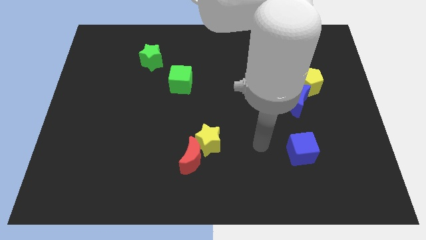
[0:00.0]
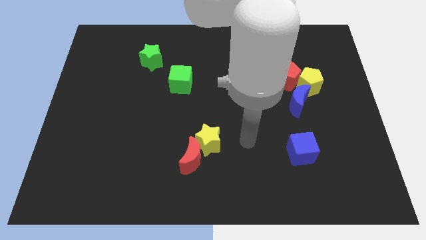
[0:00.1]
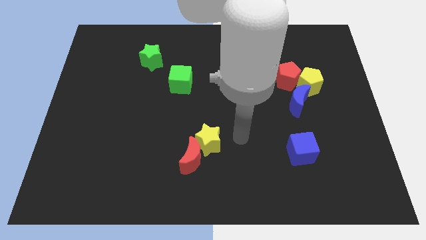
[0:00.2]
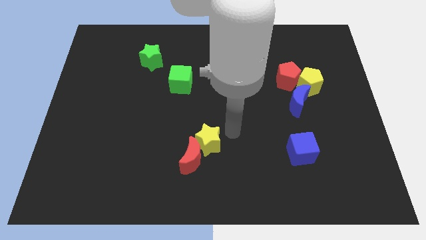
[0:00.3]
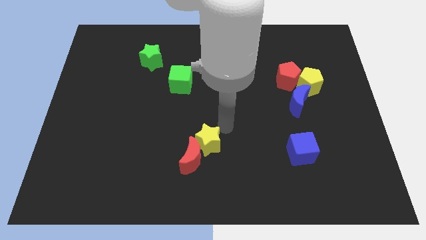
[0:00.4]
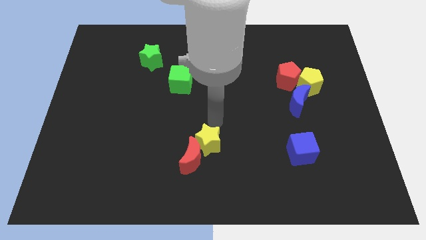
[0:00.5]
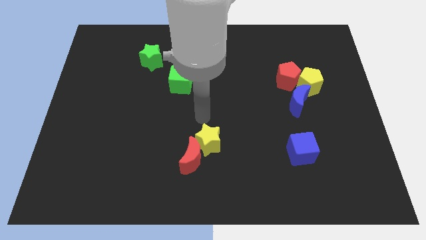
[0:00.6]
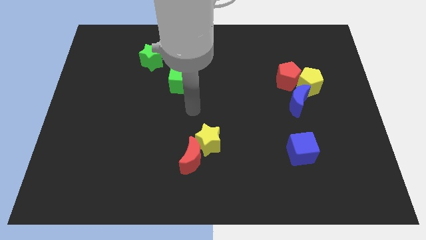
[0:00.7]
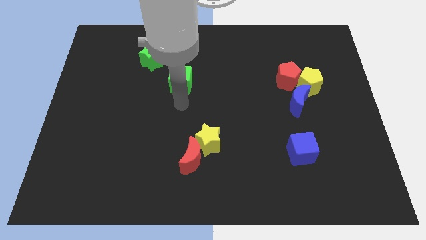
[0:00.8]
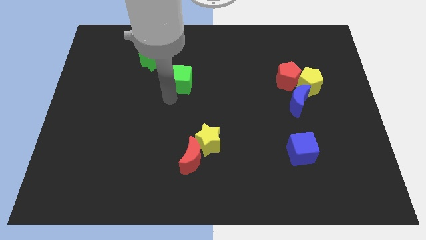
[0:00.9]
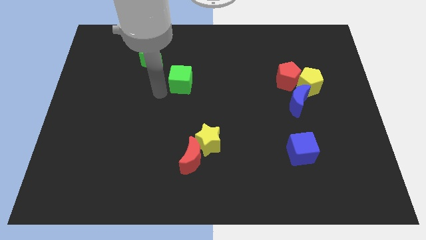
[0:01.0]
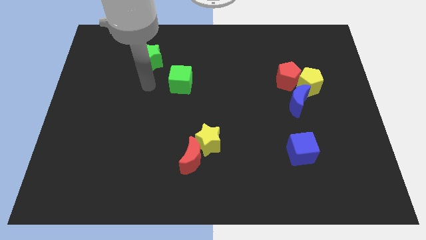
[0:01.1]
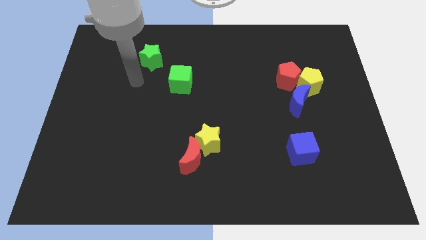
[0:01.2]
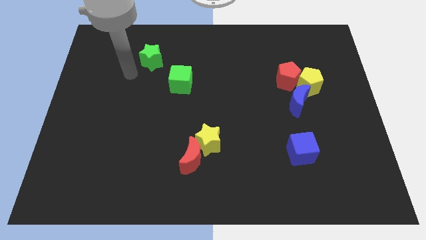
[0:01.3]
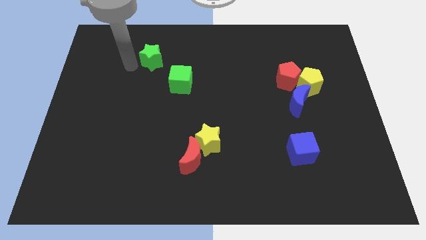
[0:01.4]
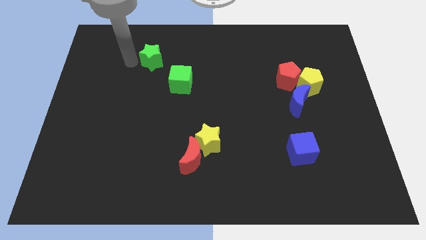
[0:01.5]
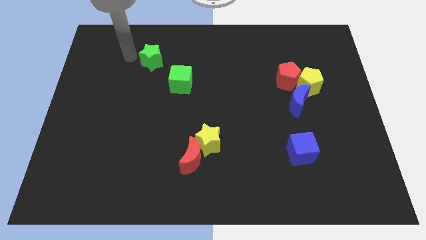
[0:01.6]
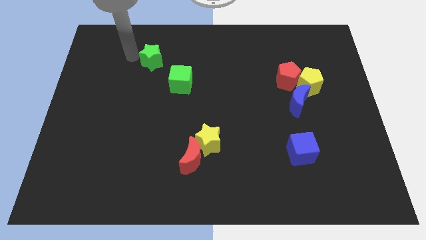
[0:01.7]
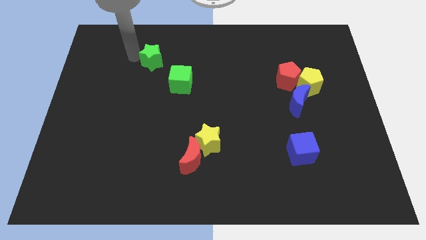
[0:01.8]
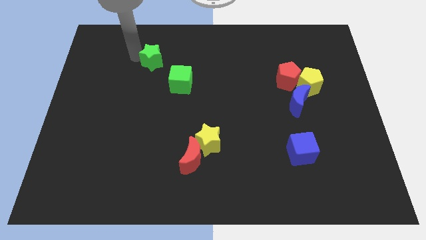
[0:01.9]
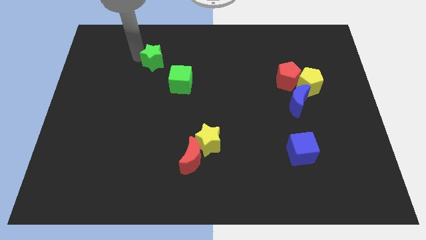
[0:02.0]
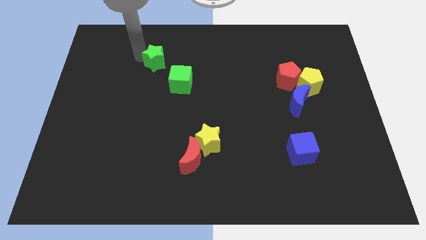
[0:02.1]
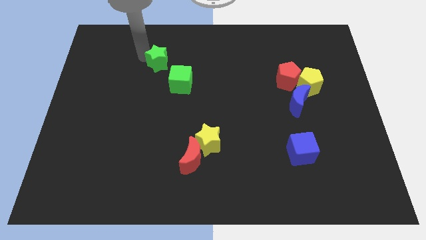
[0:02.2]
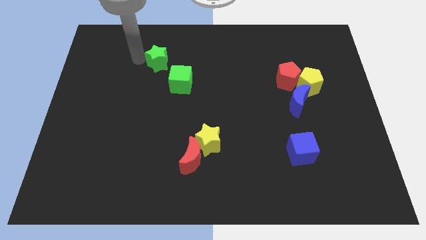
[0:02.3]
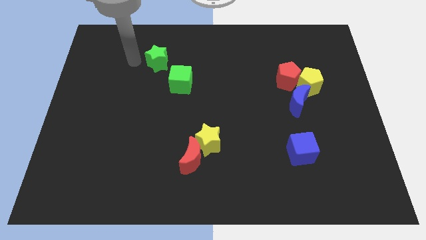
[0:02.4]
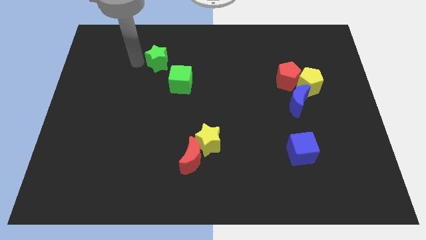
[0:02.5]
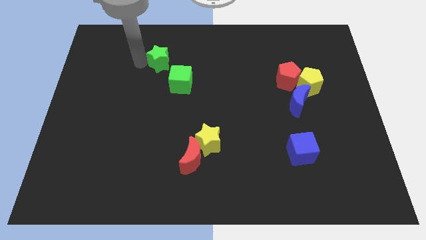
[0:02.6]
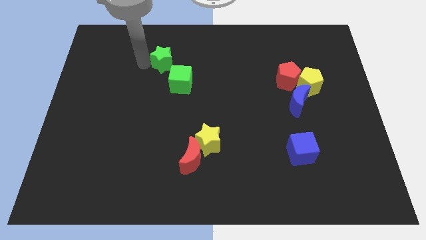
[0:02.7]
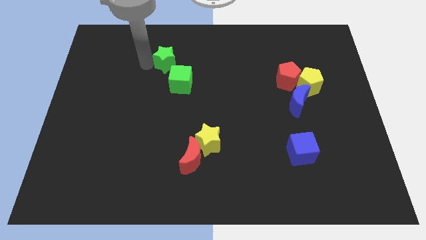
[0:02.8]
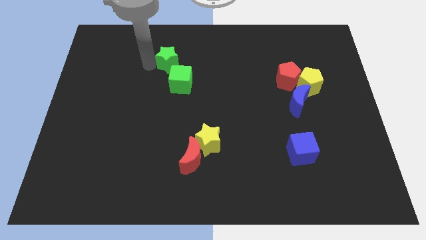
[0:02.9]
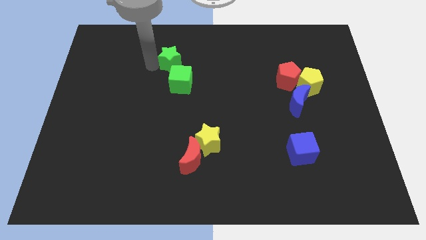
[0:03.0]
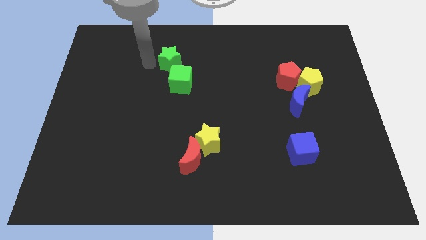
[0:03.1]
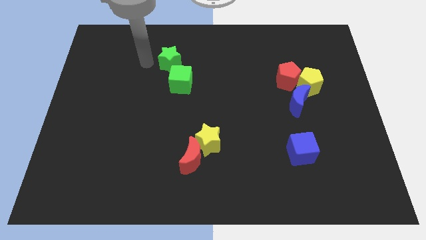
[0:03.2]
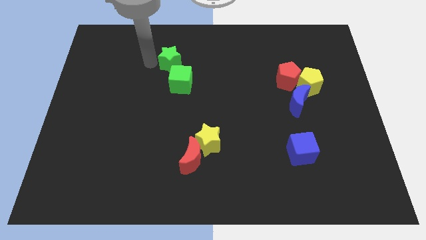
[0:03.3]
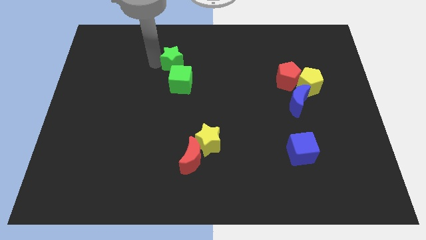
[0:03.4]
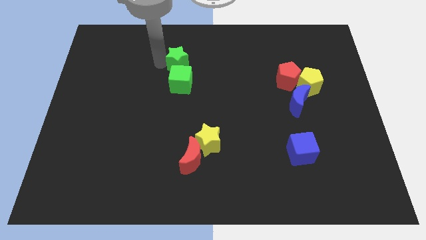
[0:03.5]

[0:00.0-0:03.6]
push the green star right a little bit

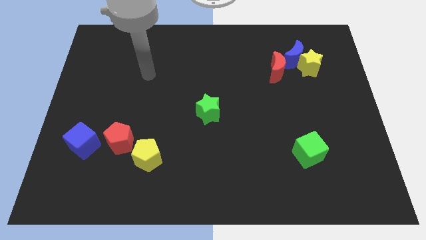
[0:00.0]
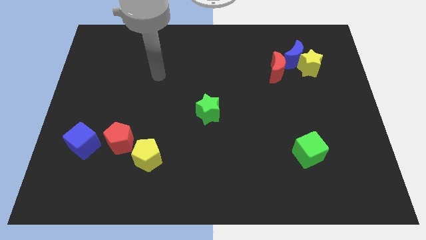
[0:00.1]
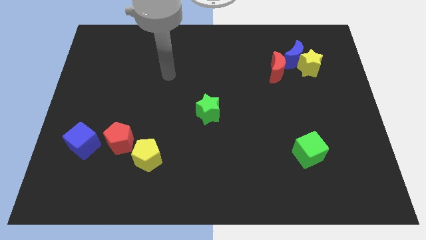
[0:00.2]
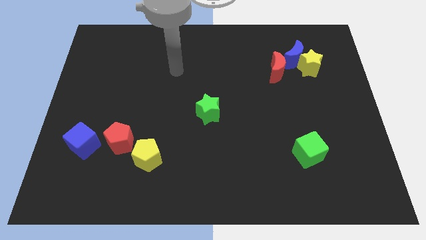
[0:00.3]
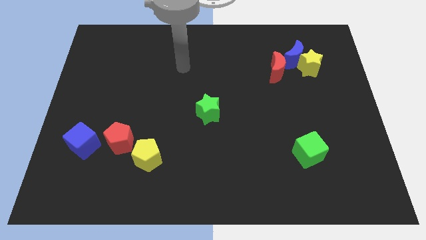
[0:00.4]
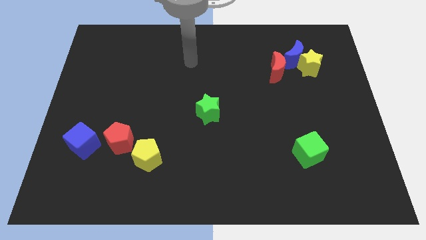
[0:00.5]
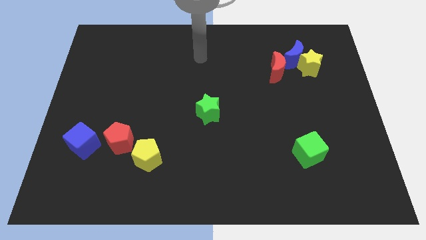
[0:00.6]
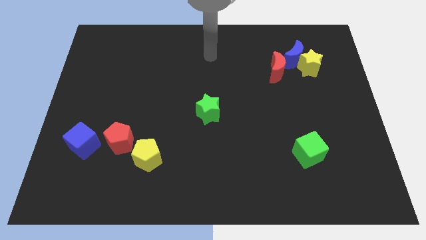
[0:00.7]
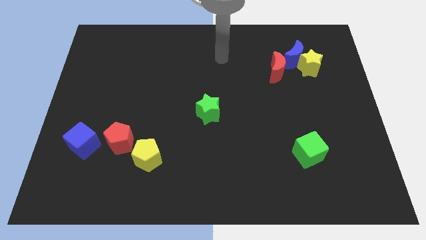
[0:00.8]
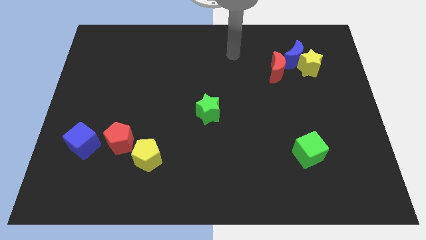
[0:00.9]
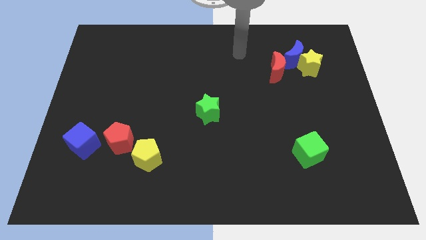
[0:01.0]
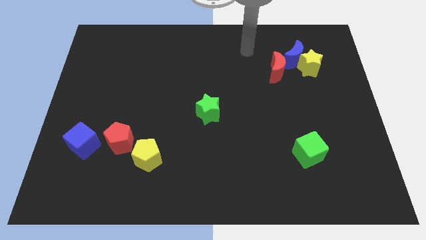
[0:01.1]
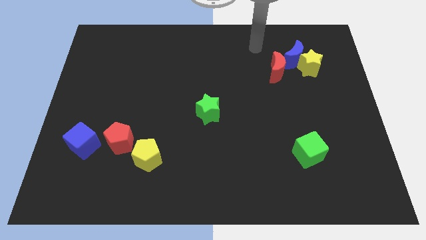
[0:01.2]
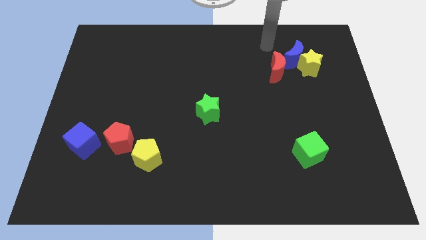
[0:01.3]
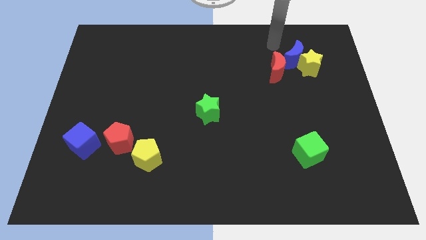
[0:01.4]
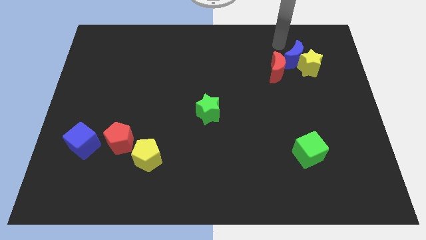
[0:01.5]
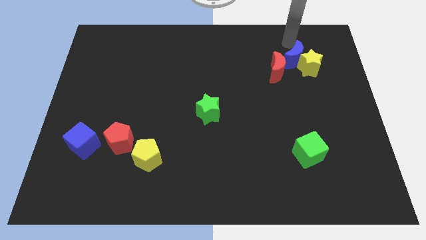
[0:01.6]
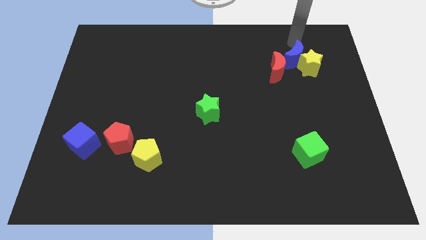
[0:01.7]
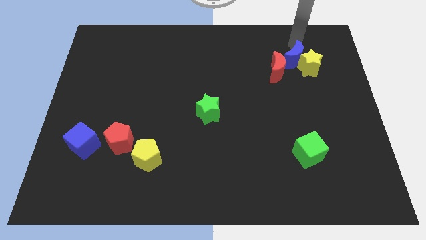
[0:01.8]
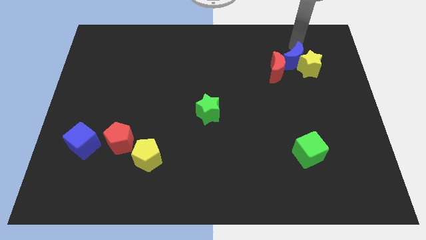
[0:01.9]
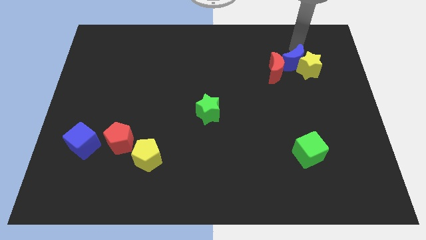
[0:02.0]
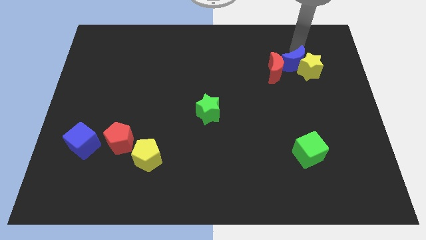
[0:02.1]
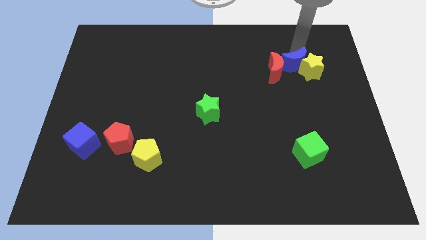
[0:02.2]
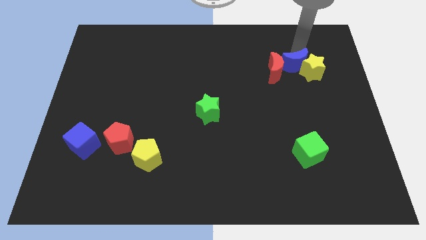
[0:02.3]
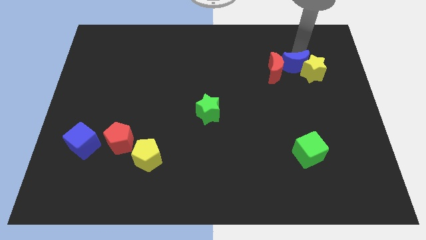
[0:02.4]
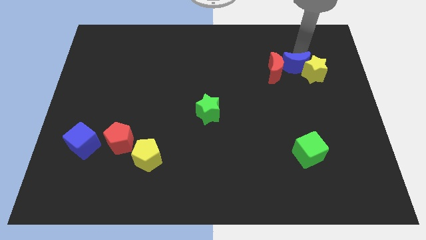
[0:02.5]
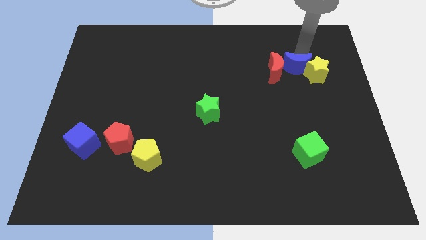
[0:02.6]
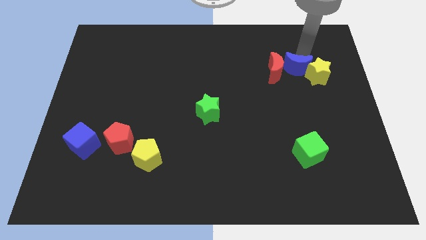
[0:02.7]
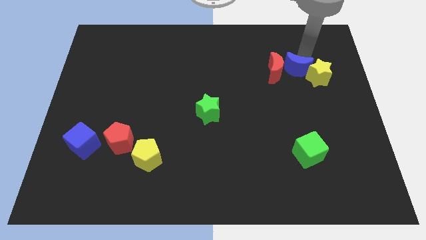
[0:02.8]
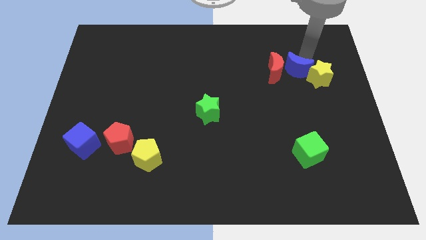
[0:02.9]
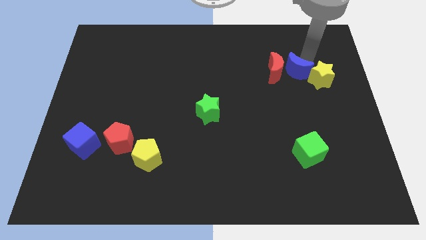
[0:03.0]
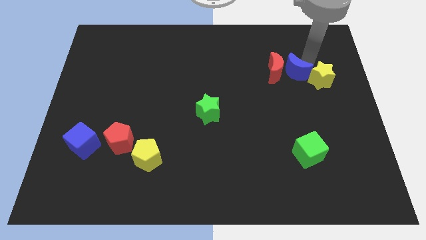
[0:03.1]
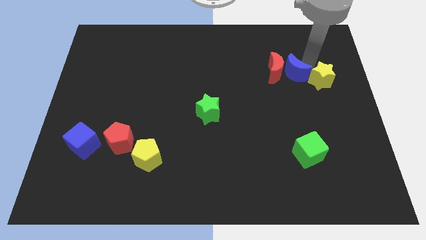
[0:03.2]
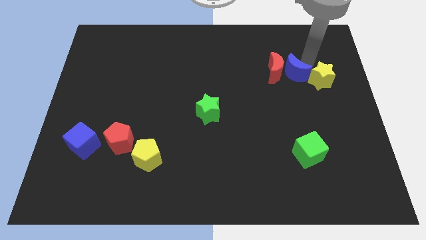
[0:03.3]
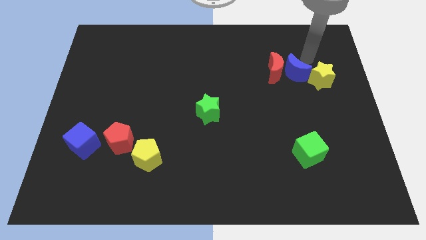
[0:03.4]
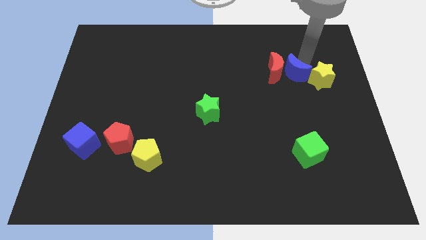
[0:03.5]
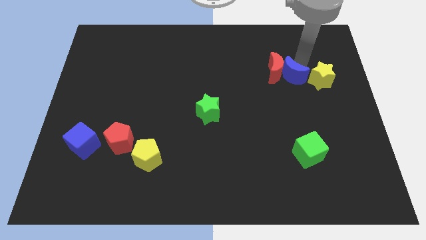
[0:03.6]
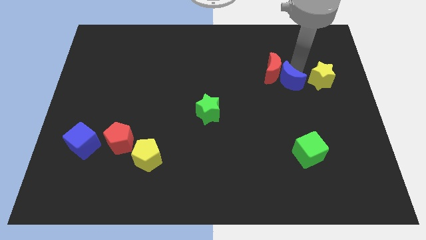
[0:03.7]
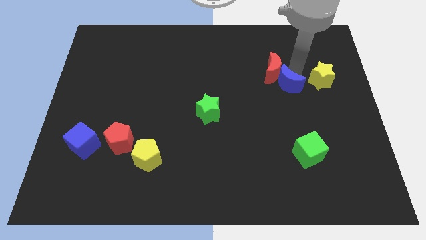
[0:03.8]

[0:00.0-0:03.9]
slightly move the blue moon down and to the left diagonally

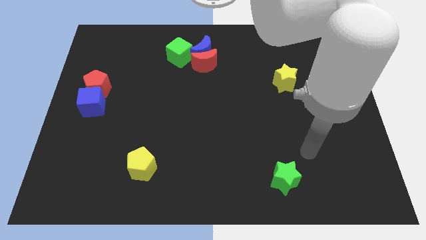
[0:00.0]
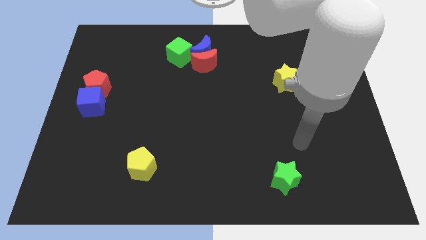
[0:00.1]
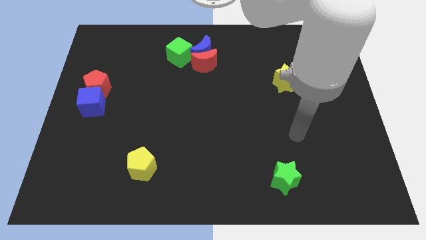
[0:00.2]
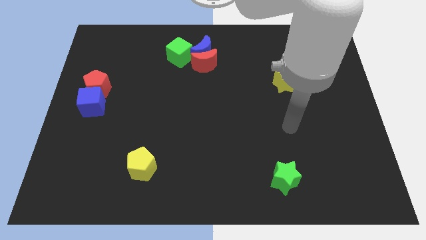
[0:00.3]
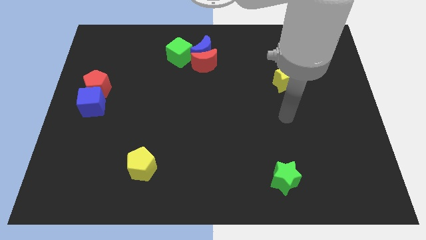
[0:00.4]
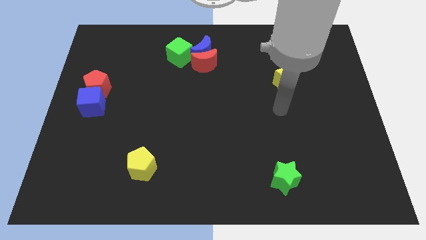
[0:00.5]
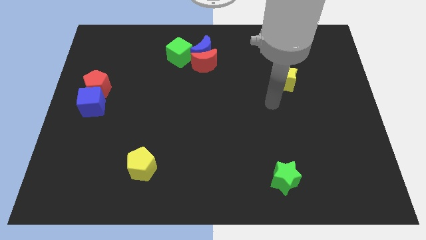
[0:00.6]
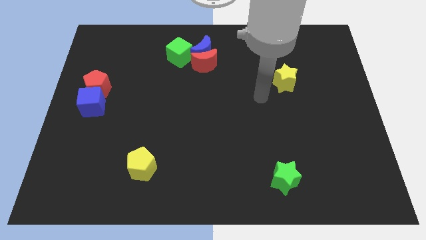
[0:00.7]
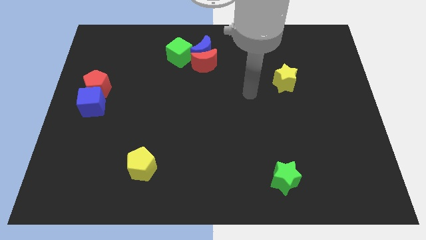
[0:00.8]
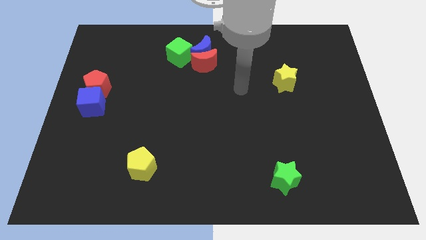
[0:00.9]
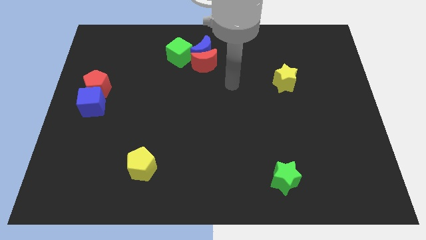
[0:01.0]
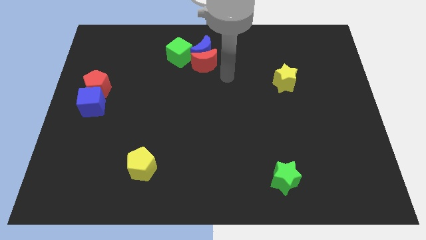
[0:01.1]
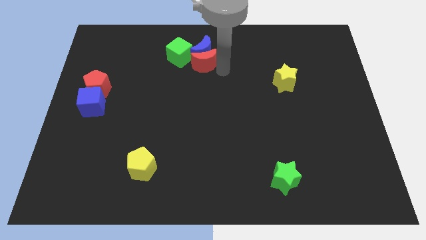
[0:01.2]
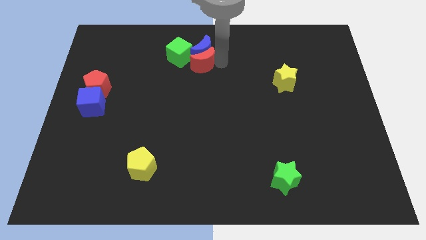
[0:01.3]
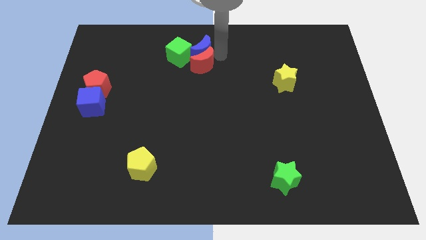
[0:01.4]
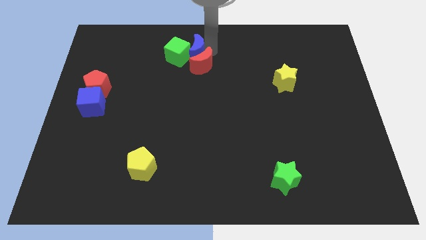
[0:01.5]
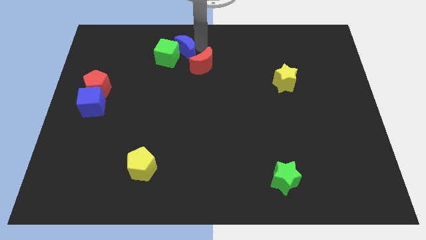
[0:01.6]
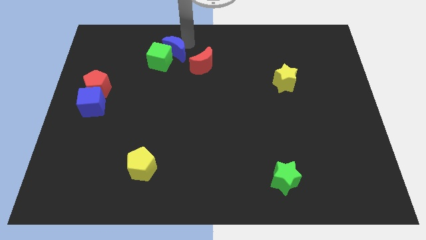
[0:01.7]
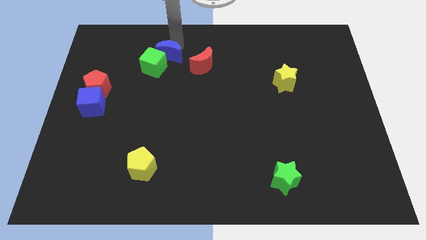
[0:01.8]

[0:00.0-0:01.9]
move the green cube down and left diagonally slightly
